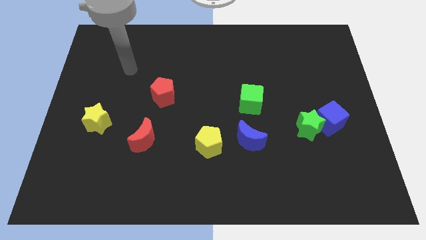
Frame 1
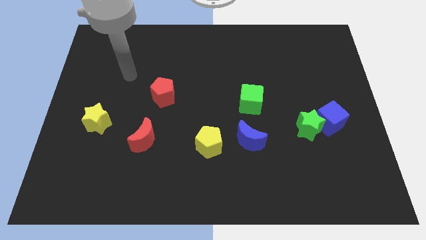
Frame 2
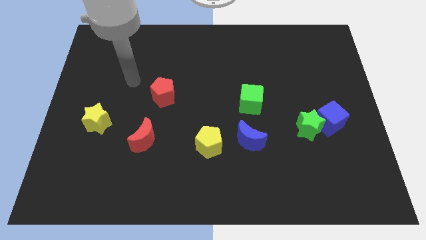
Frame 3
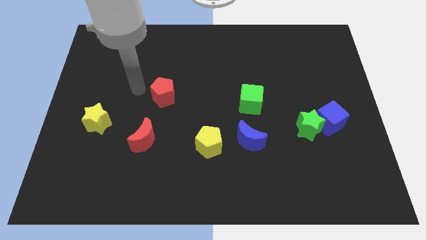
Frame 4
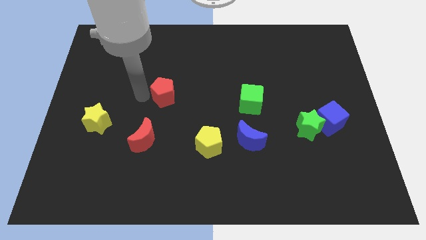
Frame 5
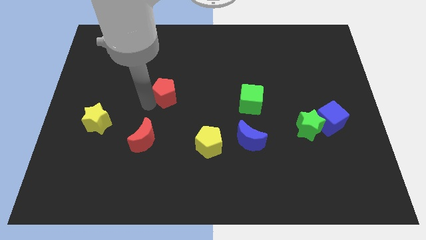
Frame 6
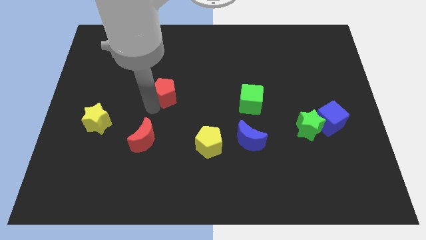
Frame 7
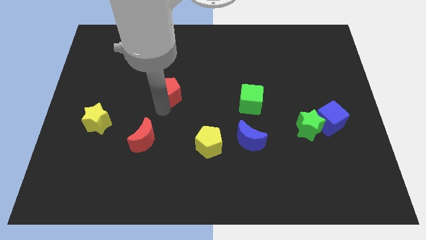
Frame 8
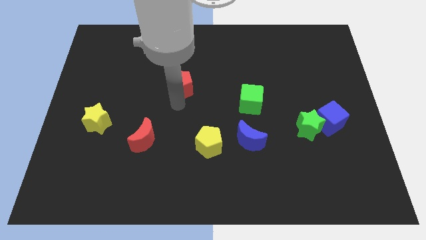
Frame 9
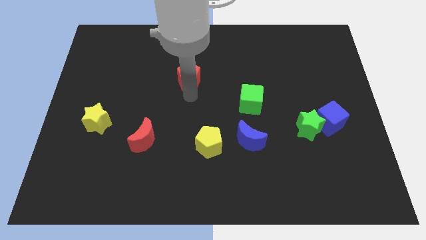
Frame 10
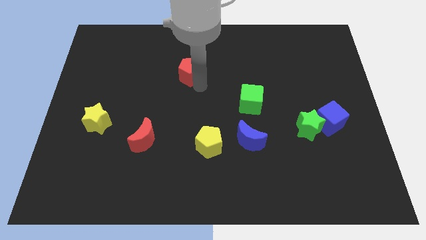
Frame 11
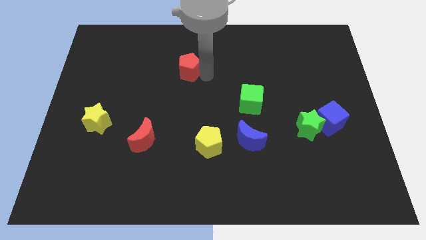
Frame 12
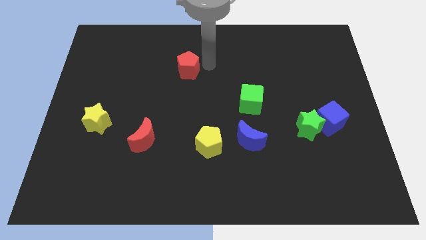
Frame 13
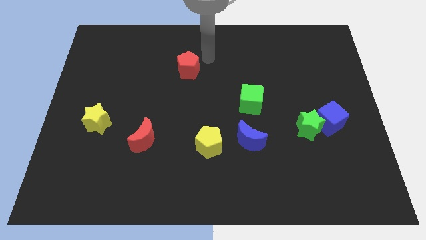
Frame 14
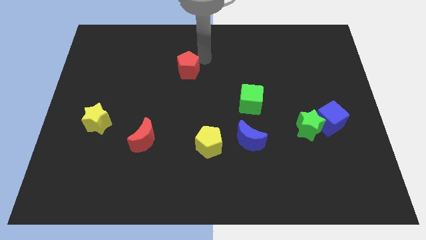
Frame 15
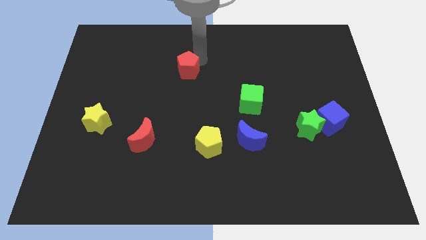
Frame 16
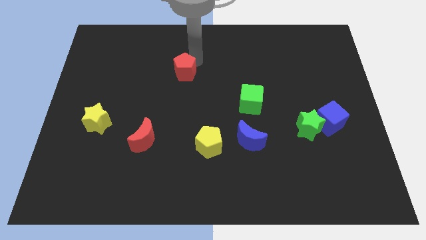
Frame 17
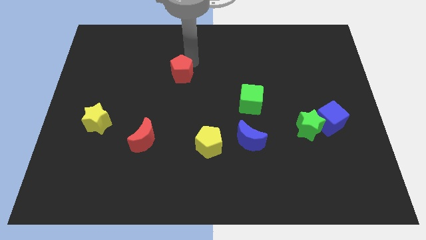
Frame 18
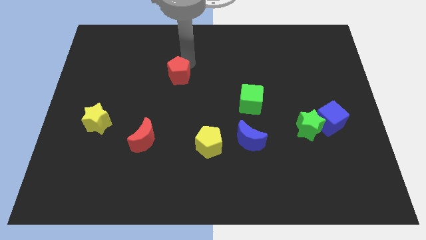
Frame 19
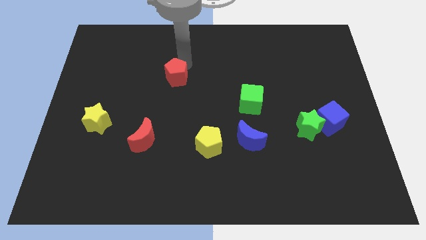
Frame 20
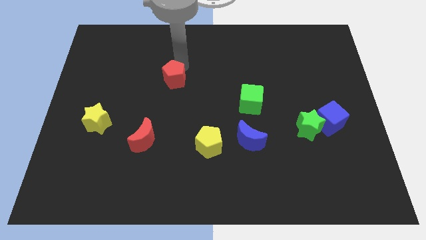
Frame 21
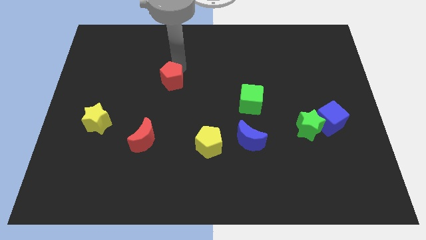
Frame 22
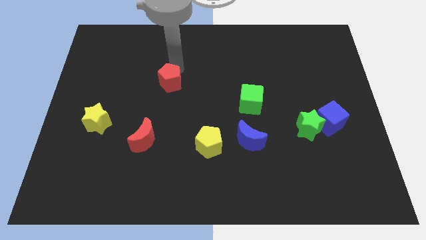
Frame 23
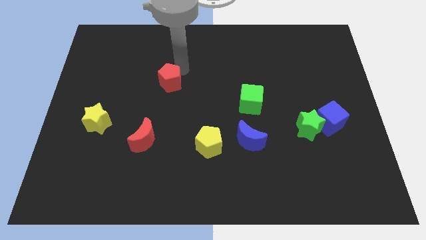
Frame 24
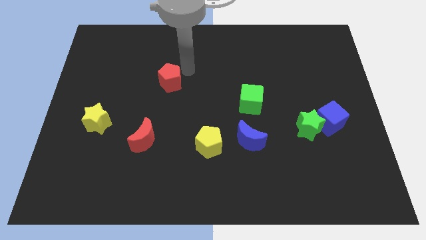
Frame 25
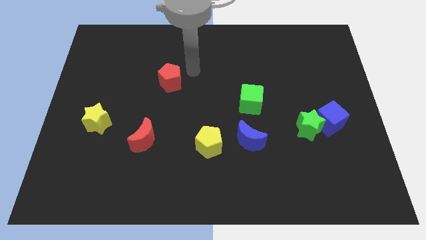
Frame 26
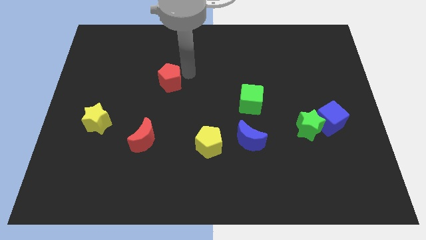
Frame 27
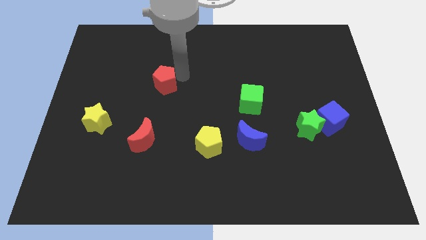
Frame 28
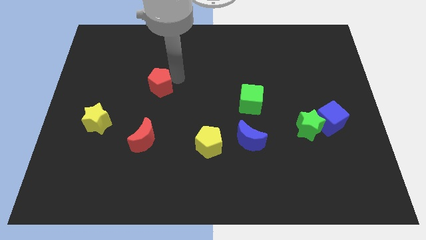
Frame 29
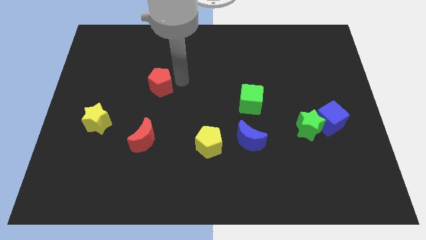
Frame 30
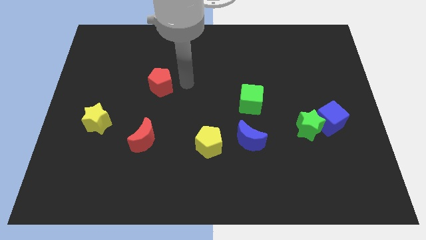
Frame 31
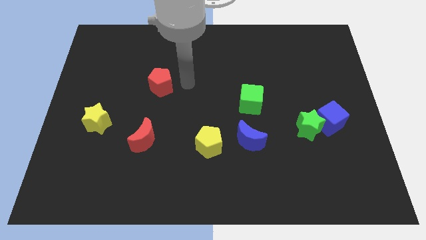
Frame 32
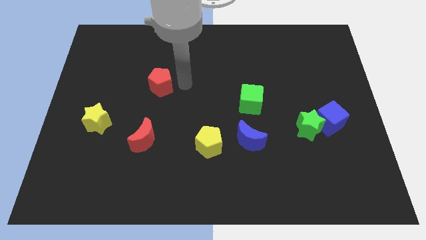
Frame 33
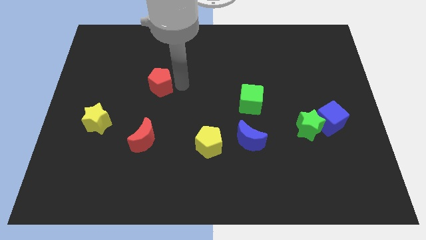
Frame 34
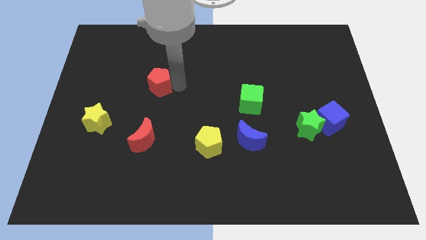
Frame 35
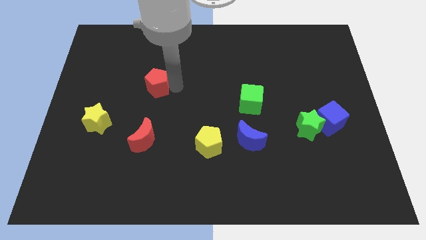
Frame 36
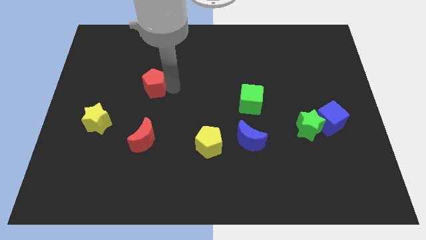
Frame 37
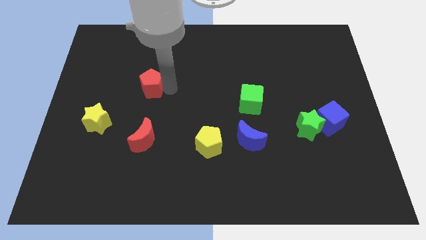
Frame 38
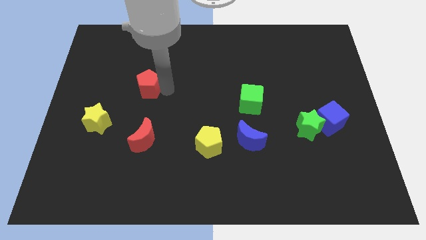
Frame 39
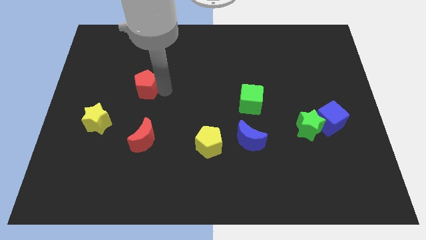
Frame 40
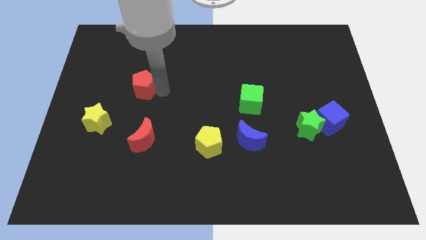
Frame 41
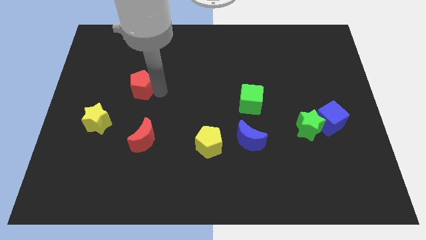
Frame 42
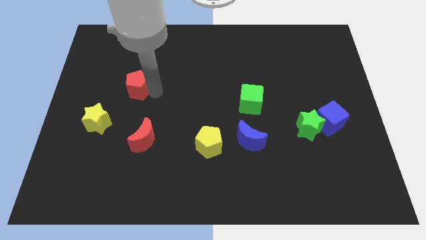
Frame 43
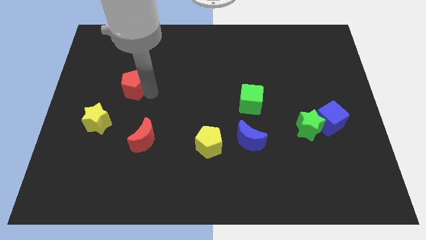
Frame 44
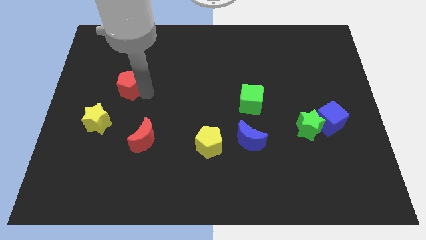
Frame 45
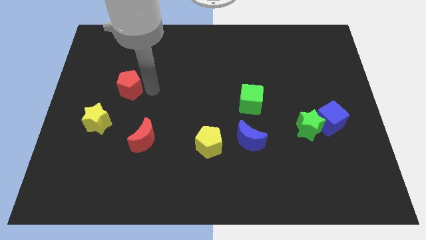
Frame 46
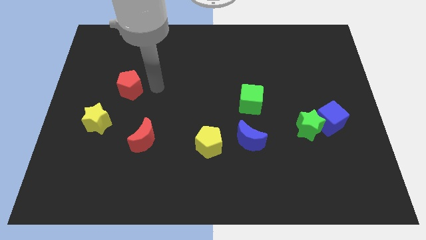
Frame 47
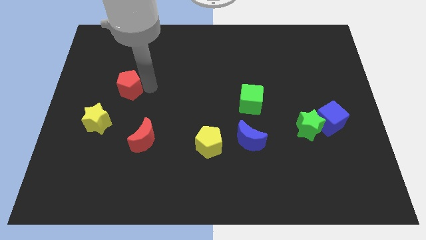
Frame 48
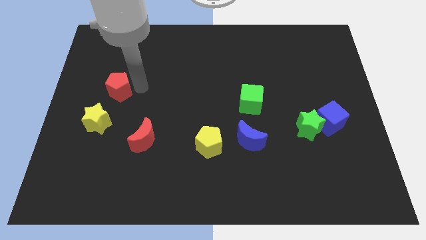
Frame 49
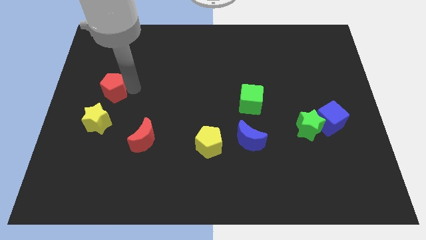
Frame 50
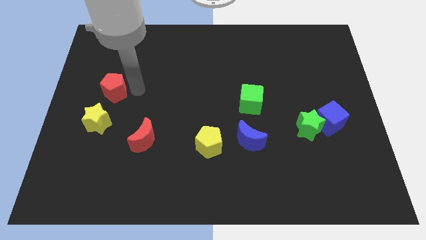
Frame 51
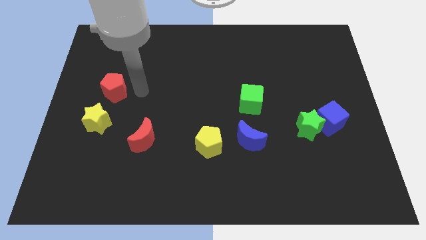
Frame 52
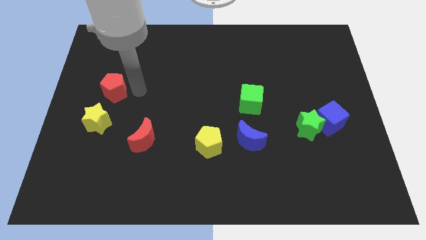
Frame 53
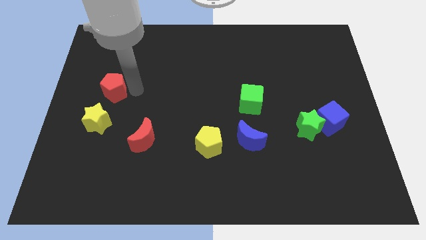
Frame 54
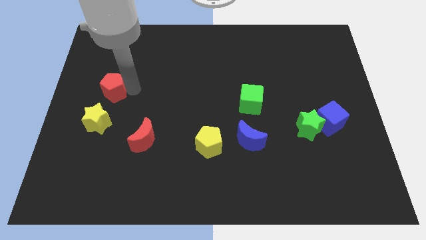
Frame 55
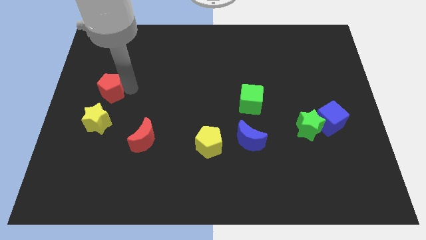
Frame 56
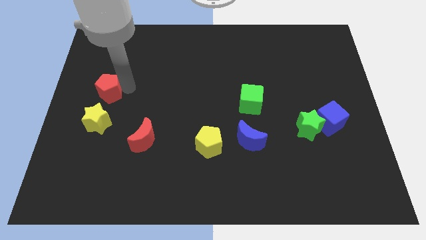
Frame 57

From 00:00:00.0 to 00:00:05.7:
put the red pentagon to the left side of the board

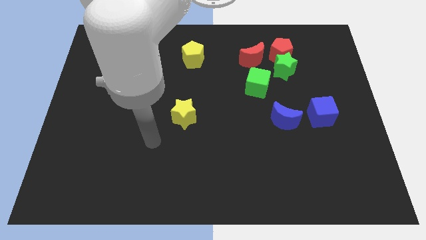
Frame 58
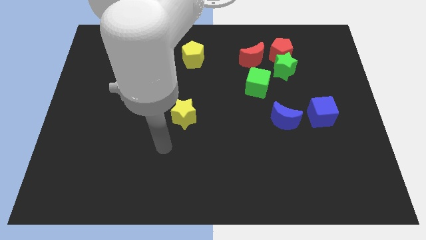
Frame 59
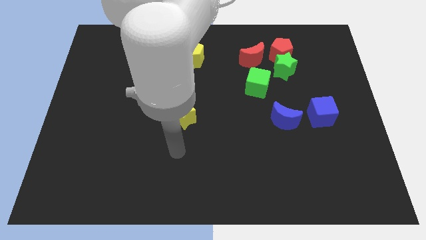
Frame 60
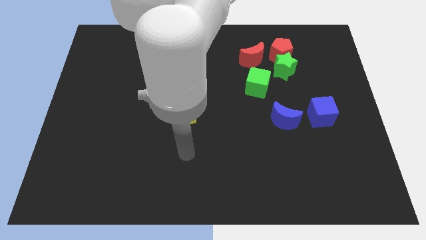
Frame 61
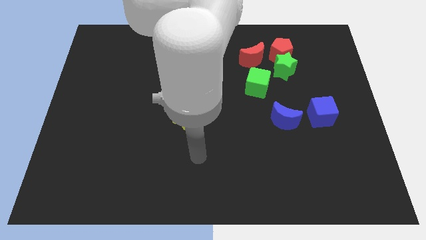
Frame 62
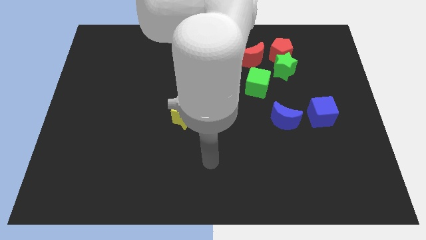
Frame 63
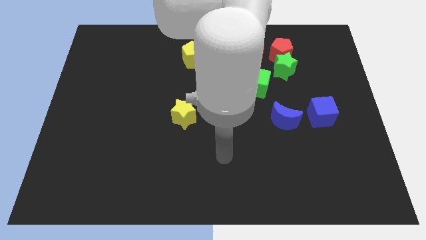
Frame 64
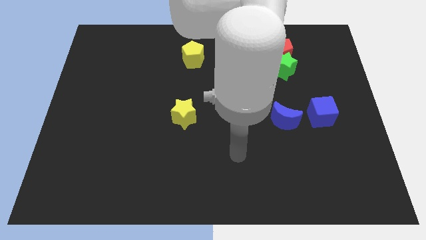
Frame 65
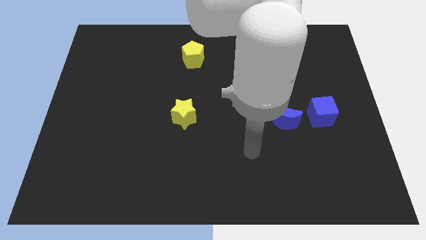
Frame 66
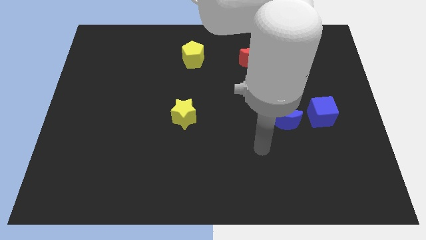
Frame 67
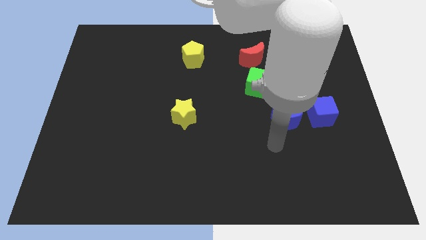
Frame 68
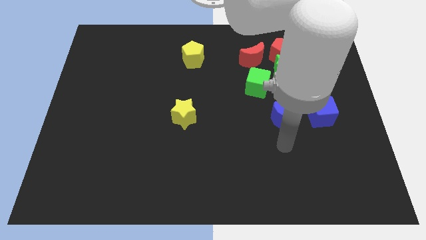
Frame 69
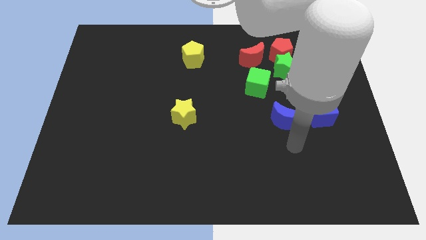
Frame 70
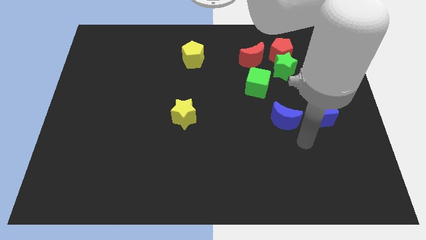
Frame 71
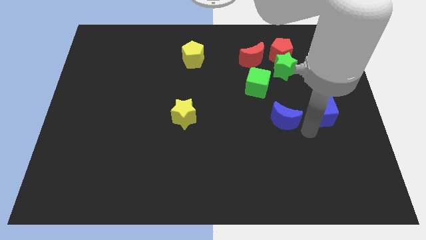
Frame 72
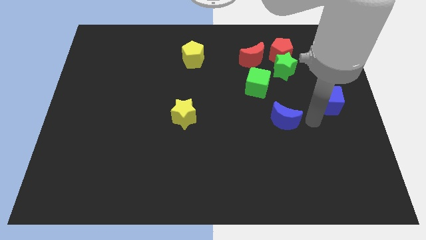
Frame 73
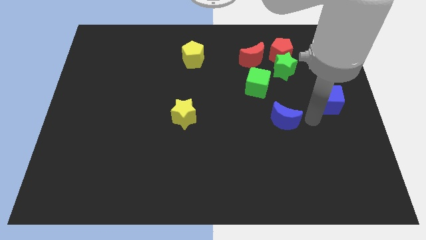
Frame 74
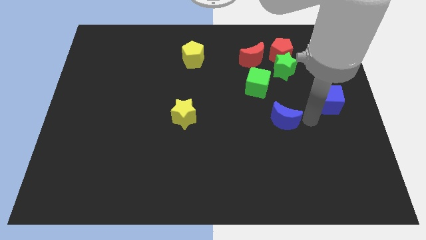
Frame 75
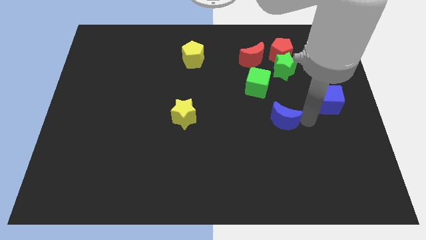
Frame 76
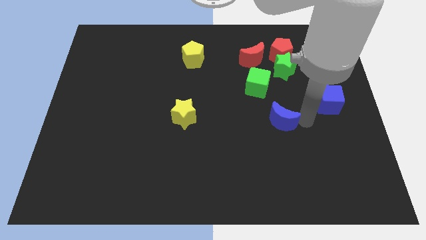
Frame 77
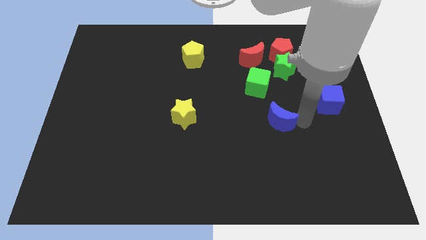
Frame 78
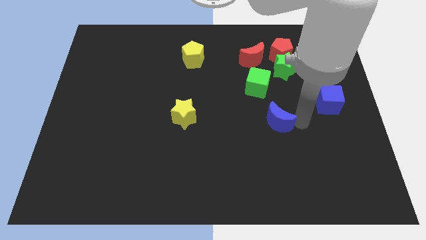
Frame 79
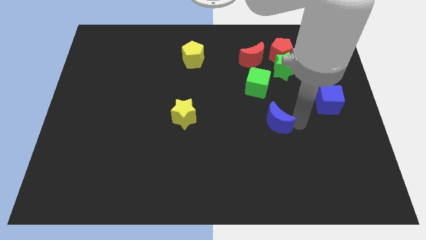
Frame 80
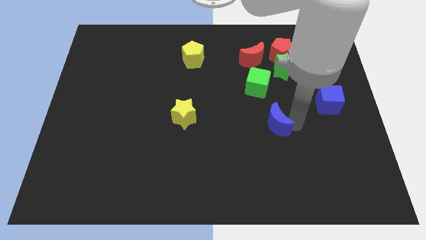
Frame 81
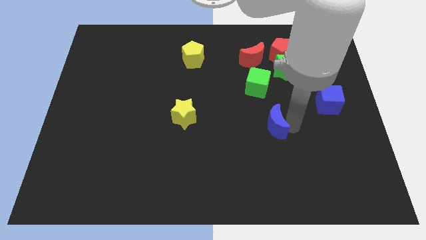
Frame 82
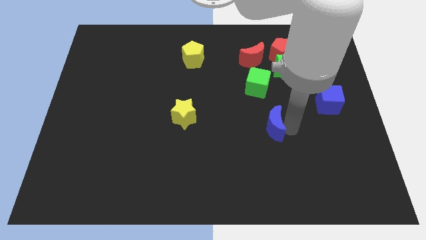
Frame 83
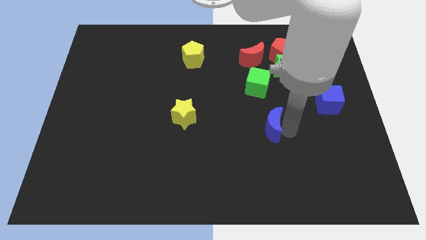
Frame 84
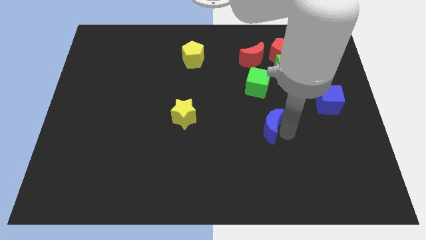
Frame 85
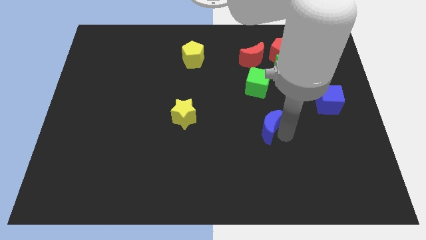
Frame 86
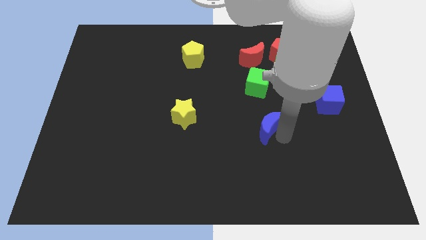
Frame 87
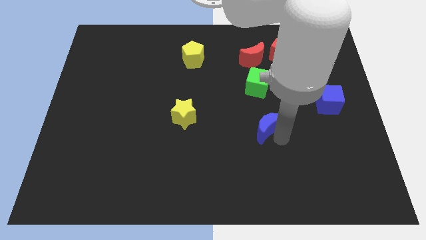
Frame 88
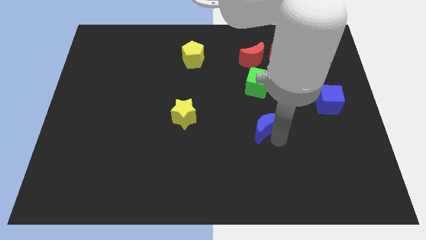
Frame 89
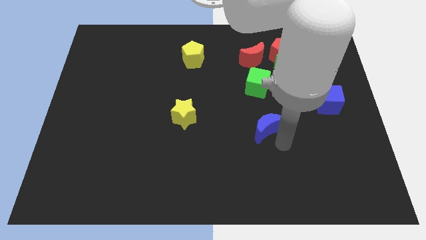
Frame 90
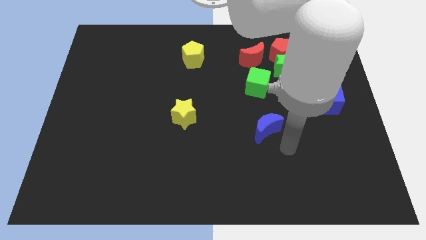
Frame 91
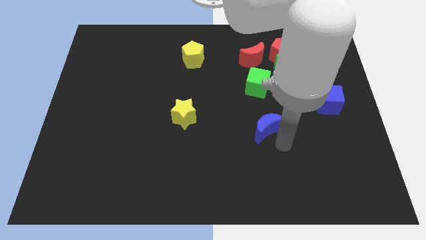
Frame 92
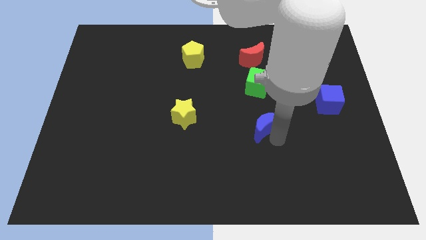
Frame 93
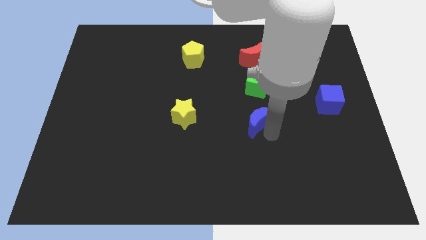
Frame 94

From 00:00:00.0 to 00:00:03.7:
push the blue moon to the center of the board
